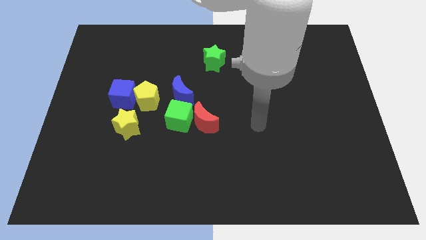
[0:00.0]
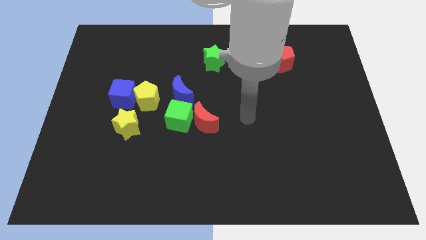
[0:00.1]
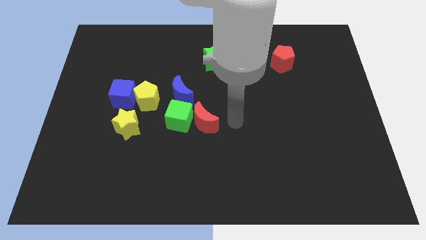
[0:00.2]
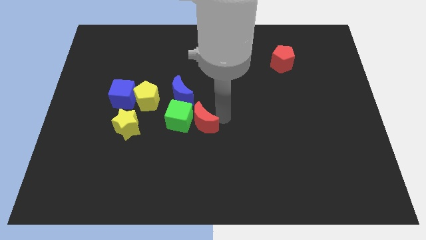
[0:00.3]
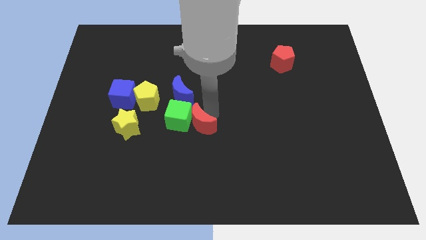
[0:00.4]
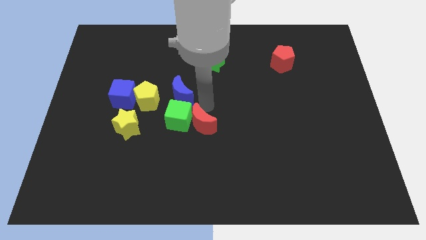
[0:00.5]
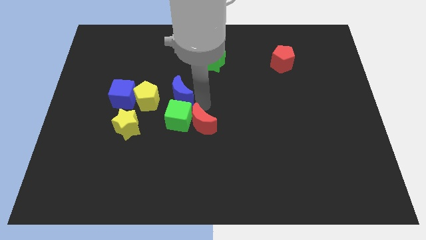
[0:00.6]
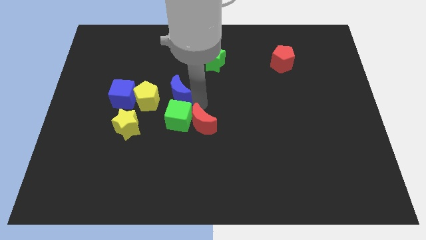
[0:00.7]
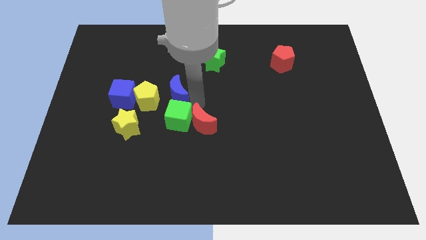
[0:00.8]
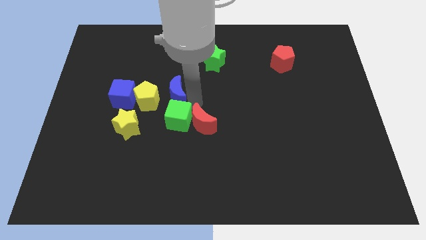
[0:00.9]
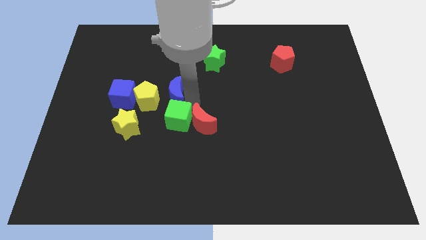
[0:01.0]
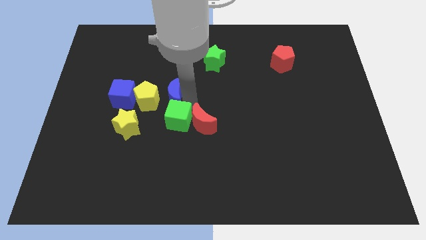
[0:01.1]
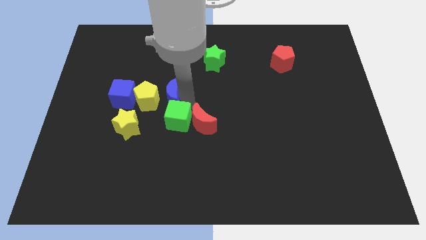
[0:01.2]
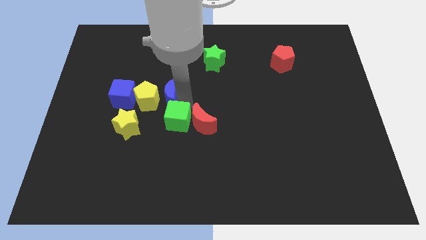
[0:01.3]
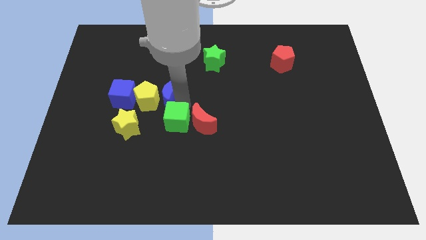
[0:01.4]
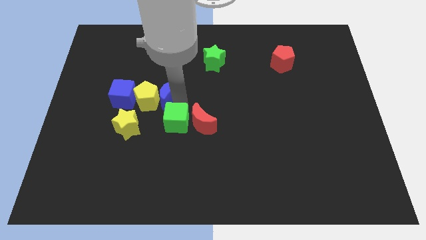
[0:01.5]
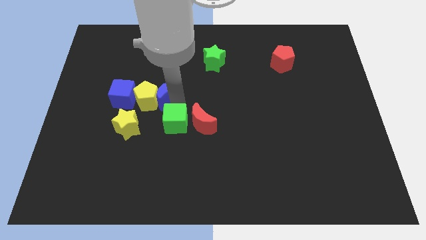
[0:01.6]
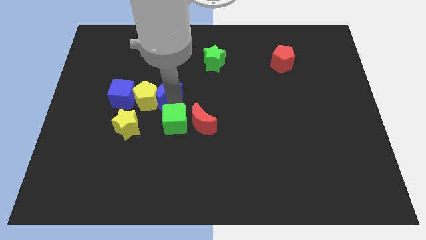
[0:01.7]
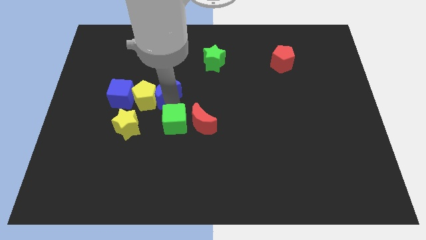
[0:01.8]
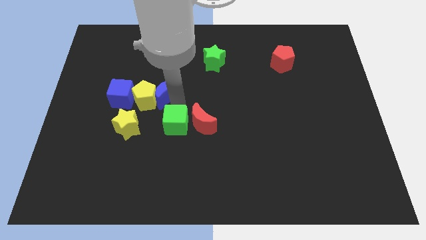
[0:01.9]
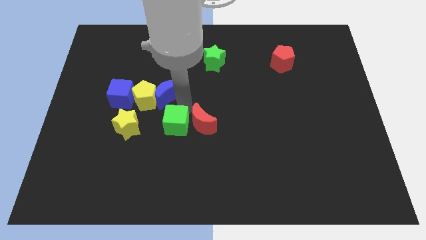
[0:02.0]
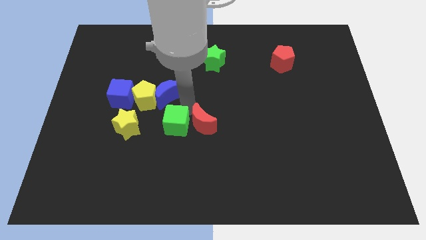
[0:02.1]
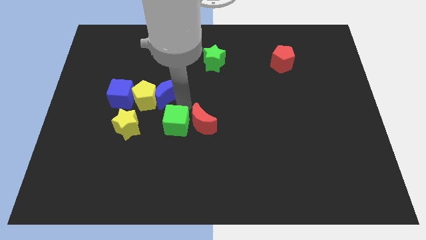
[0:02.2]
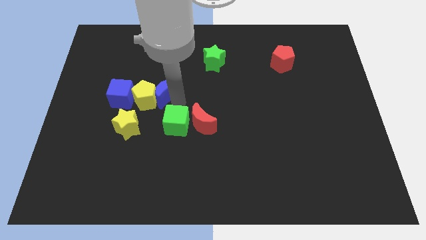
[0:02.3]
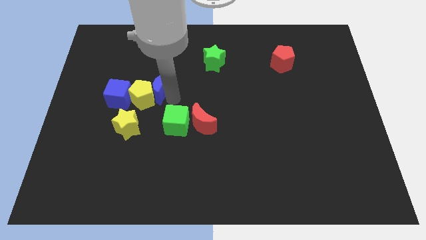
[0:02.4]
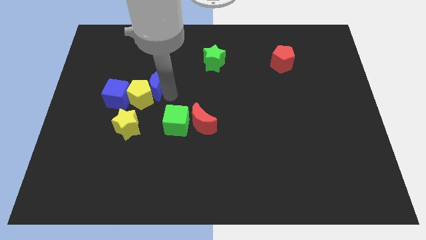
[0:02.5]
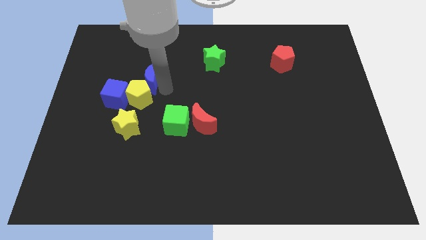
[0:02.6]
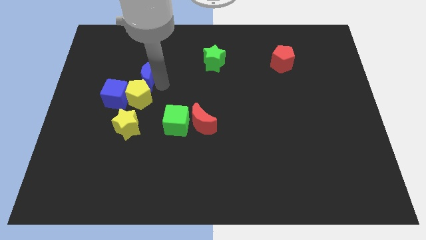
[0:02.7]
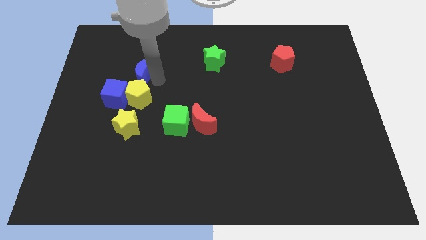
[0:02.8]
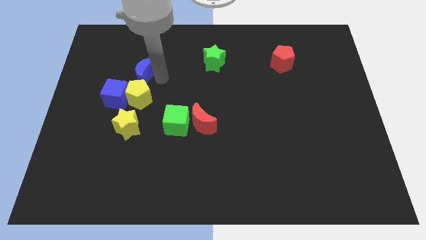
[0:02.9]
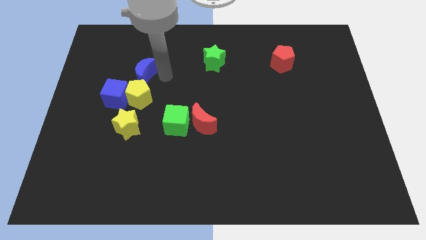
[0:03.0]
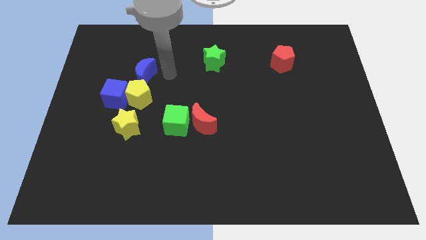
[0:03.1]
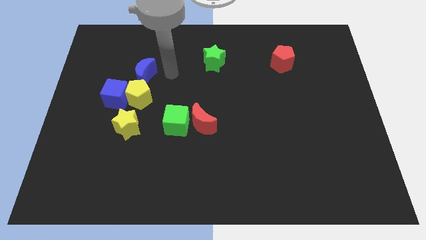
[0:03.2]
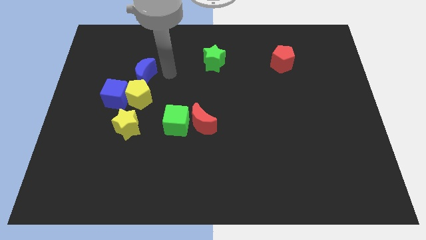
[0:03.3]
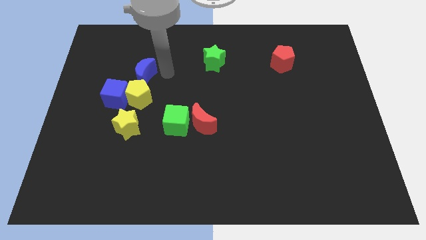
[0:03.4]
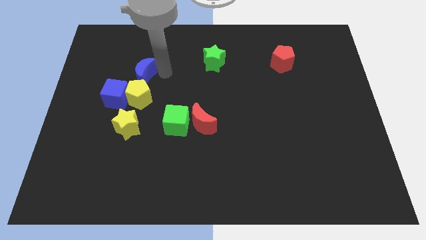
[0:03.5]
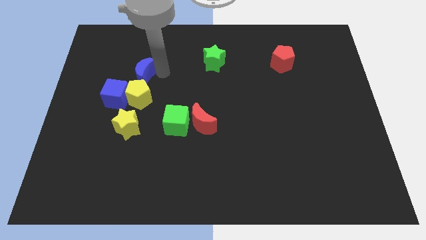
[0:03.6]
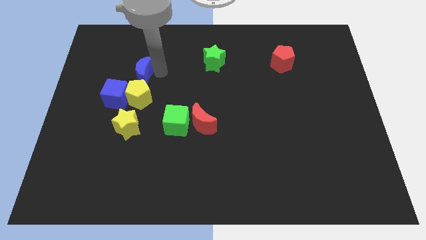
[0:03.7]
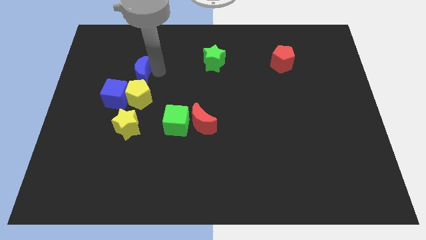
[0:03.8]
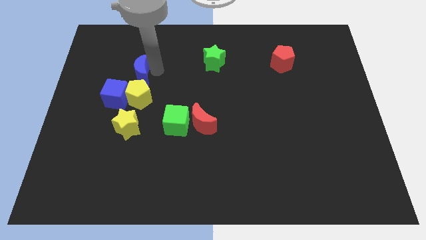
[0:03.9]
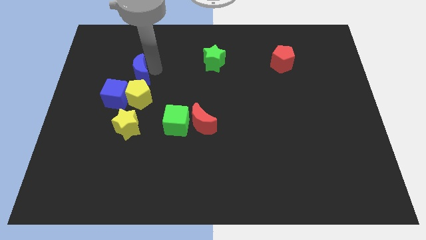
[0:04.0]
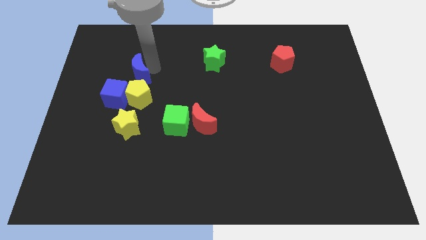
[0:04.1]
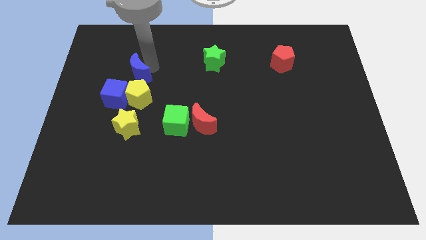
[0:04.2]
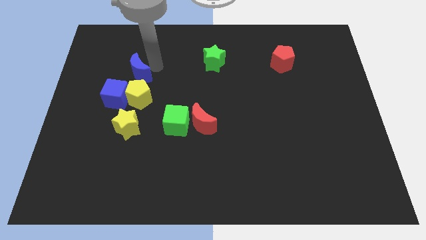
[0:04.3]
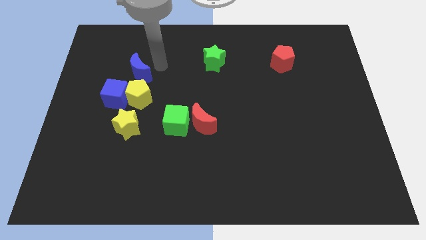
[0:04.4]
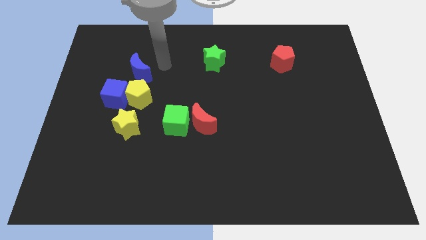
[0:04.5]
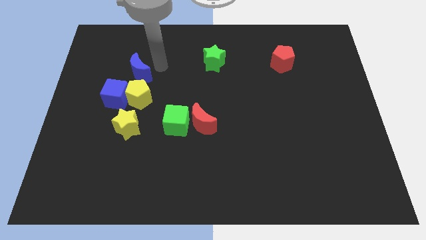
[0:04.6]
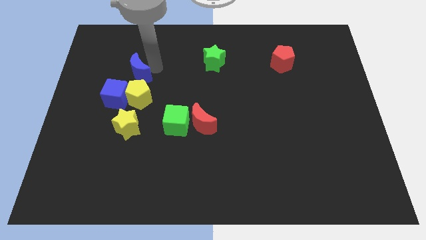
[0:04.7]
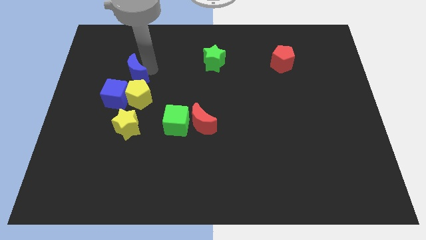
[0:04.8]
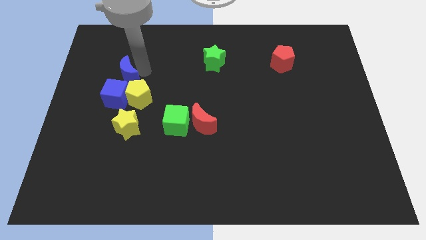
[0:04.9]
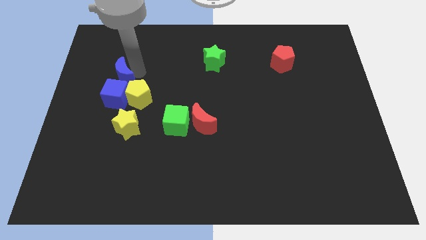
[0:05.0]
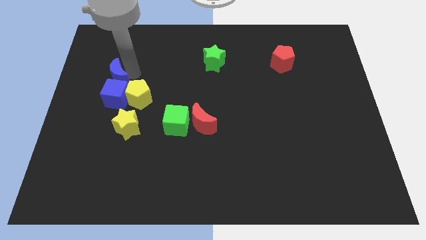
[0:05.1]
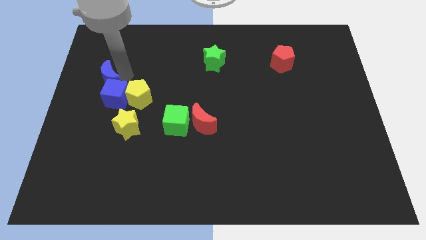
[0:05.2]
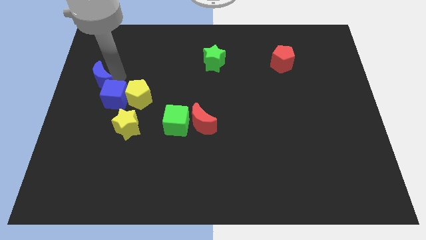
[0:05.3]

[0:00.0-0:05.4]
put the blue moon to the left side

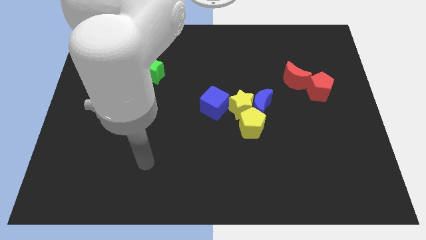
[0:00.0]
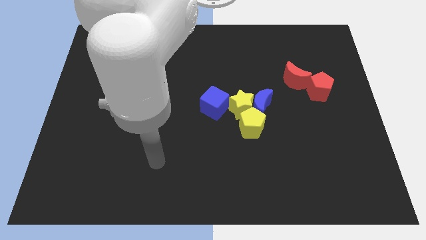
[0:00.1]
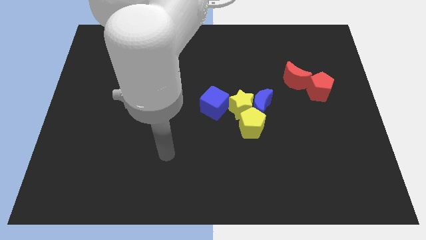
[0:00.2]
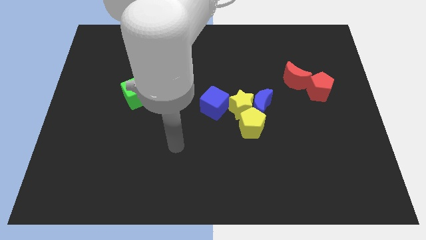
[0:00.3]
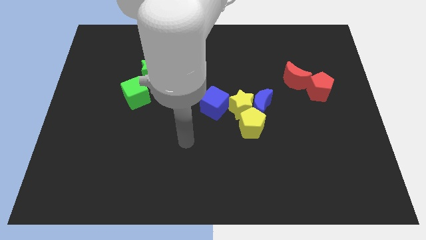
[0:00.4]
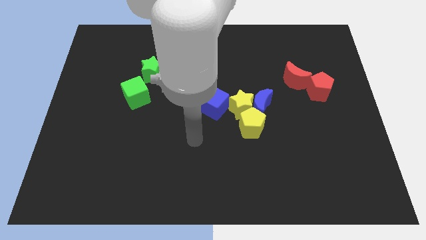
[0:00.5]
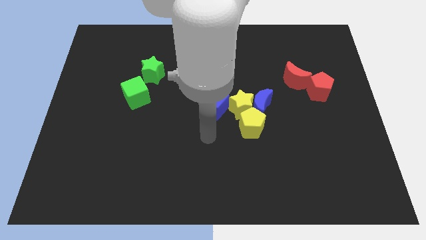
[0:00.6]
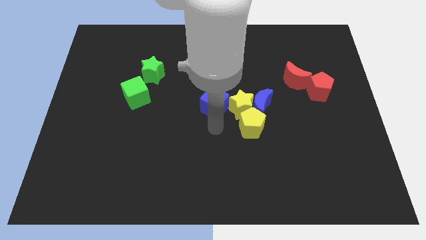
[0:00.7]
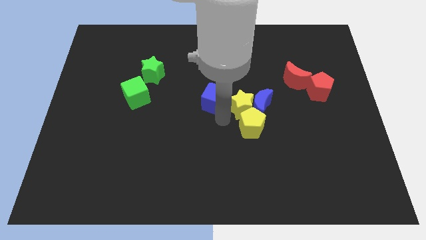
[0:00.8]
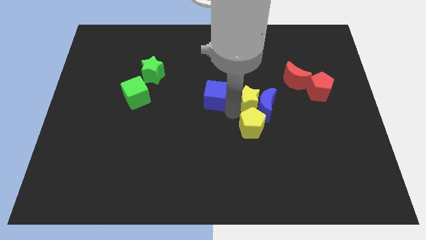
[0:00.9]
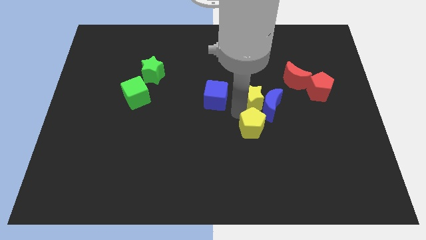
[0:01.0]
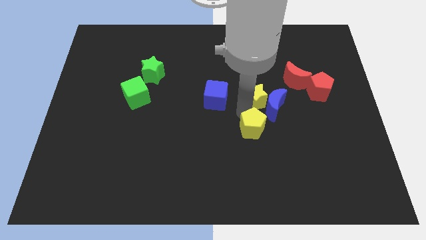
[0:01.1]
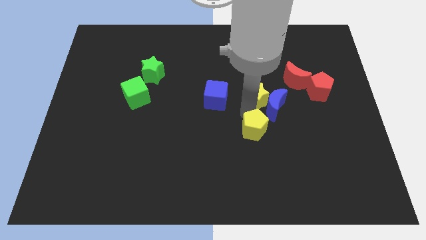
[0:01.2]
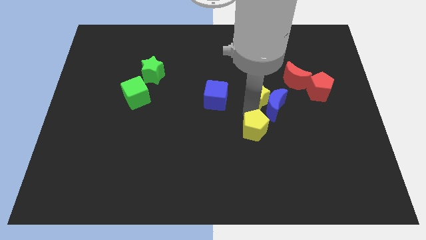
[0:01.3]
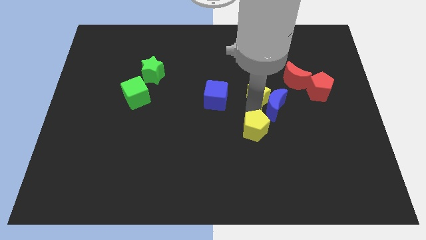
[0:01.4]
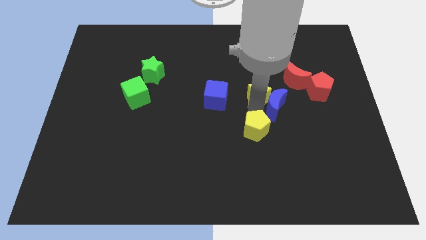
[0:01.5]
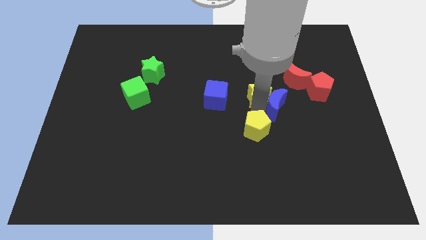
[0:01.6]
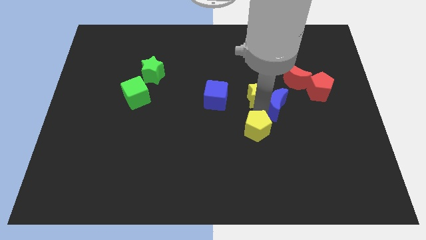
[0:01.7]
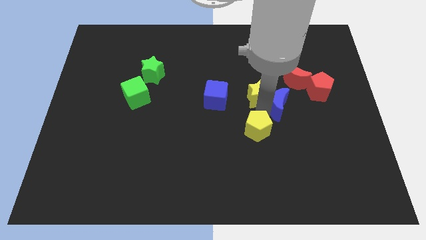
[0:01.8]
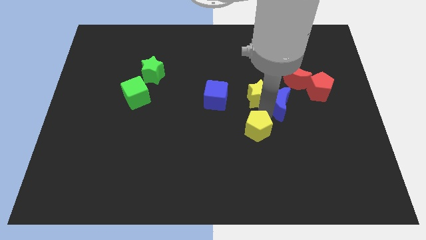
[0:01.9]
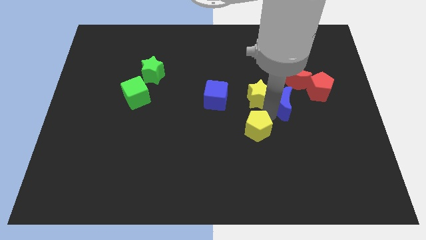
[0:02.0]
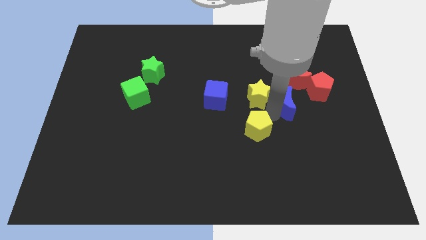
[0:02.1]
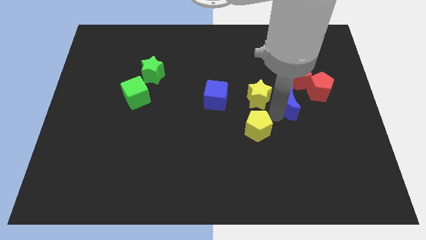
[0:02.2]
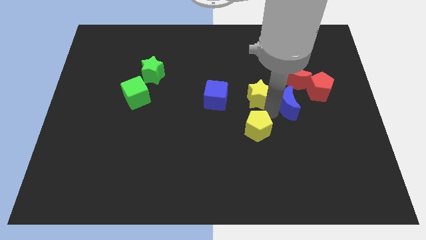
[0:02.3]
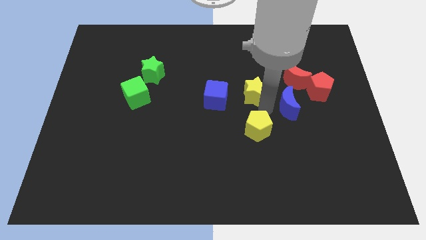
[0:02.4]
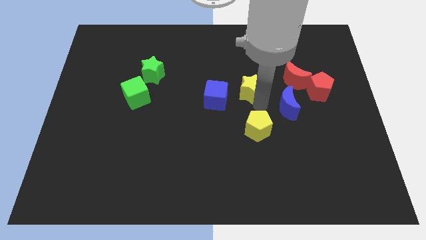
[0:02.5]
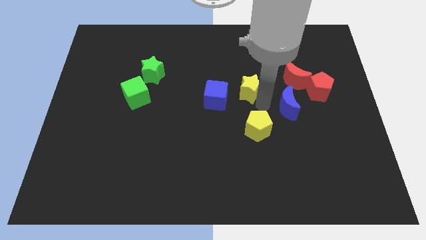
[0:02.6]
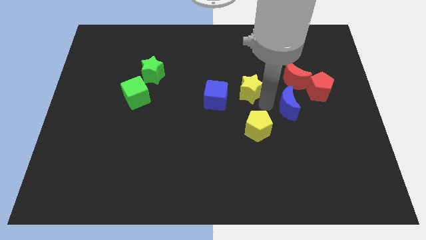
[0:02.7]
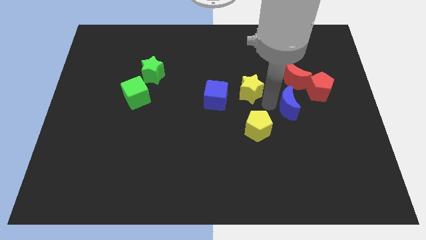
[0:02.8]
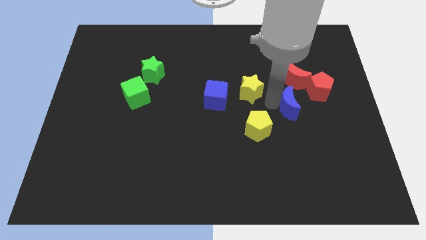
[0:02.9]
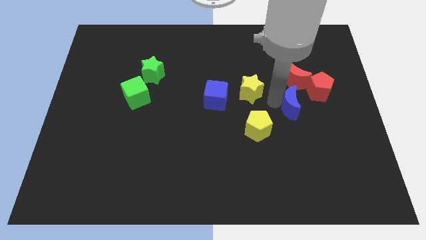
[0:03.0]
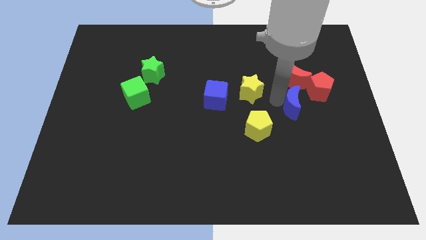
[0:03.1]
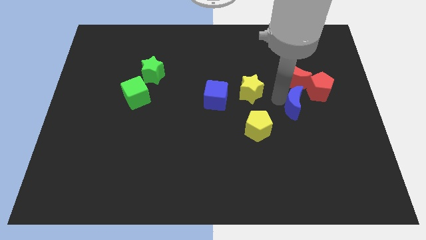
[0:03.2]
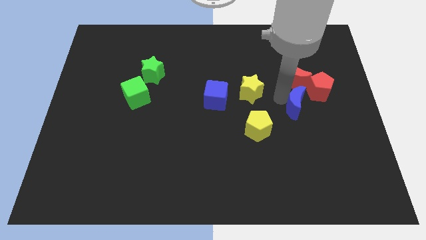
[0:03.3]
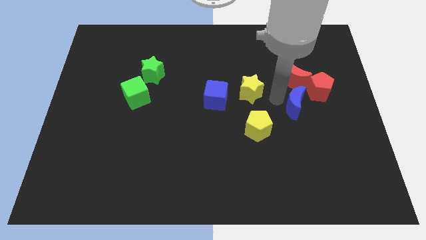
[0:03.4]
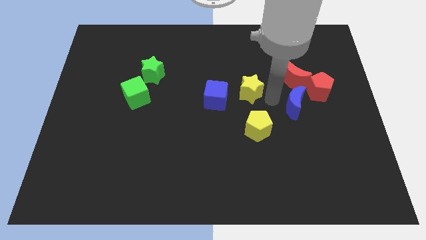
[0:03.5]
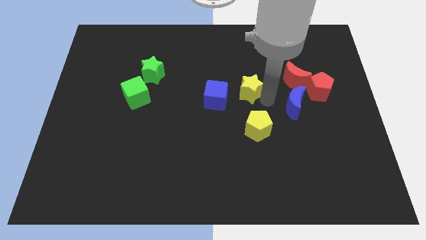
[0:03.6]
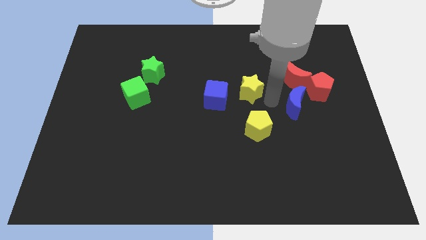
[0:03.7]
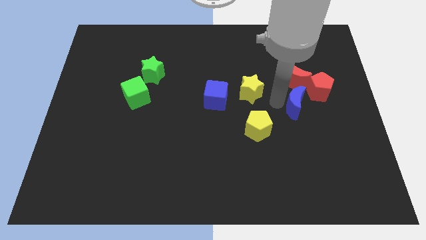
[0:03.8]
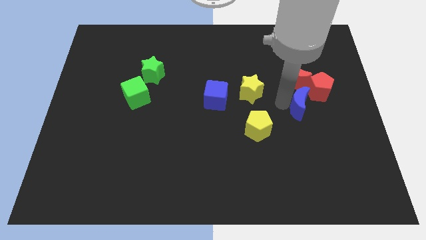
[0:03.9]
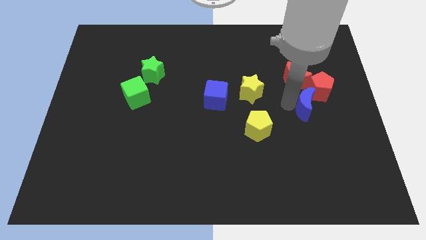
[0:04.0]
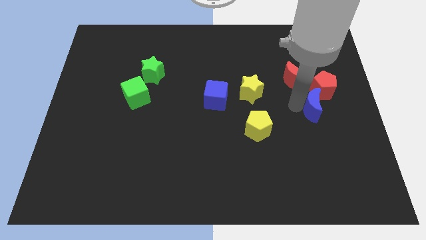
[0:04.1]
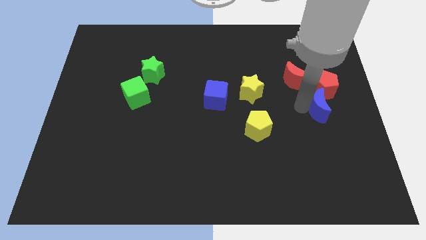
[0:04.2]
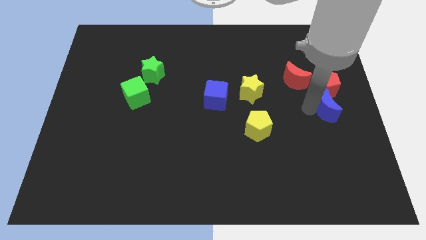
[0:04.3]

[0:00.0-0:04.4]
push the blue moon to the center right
